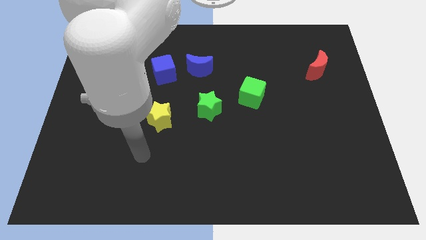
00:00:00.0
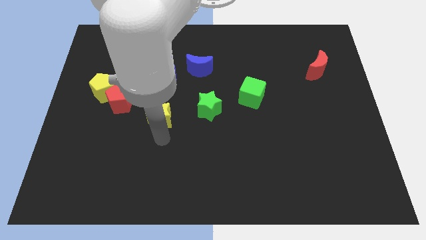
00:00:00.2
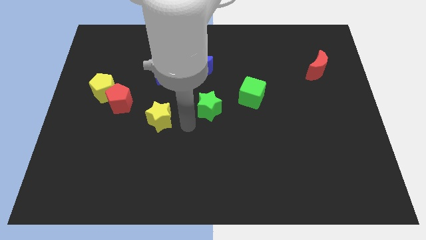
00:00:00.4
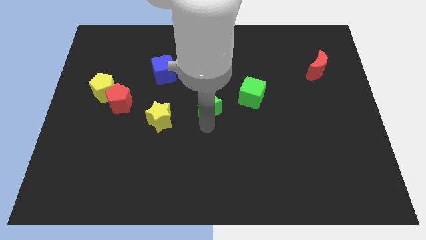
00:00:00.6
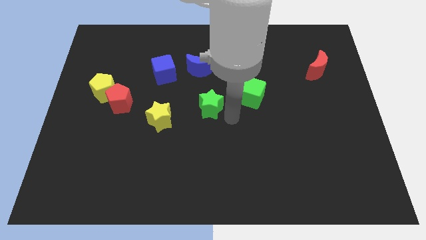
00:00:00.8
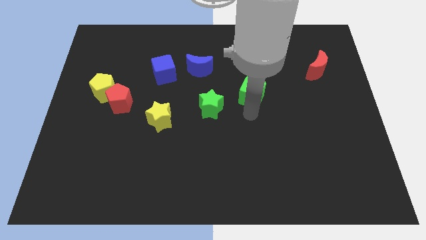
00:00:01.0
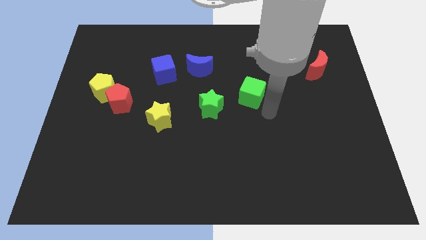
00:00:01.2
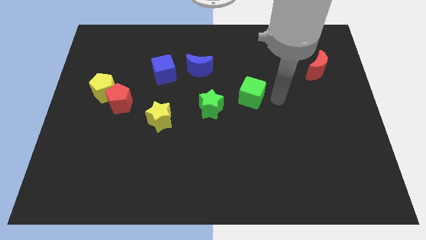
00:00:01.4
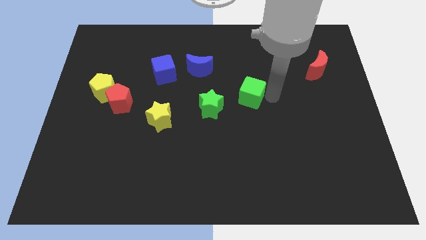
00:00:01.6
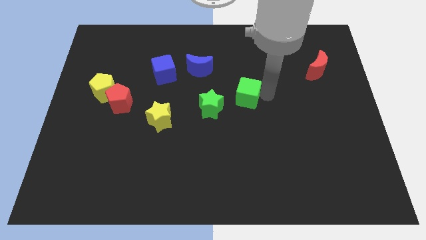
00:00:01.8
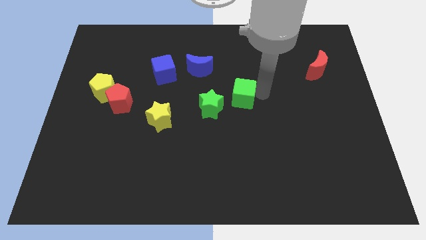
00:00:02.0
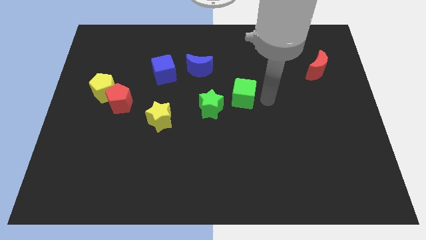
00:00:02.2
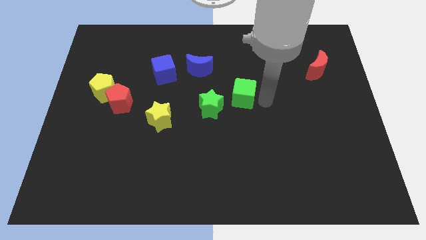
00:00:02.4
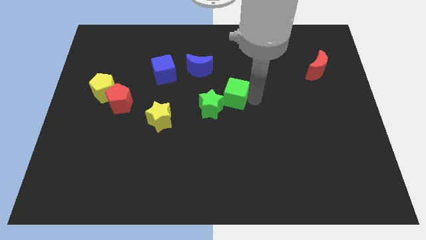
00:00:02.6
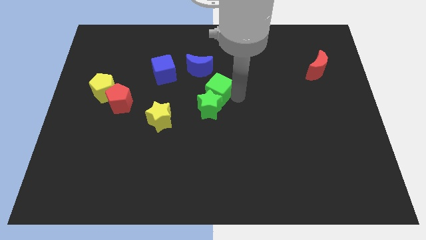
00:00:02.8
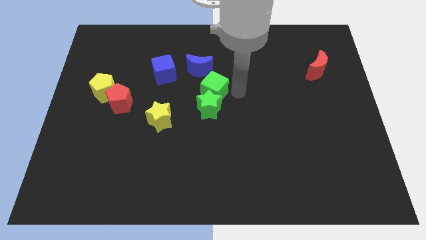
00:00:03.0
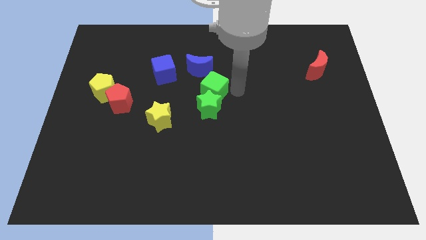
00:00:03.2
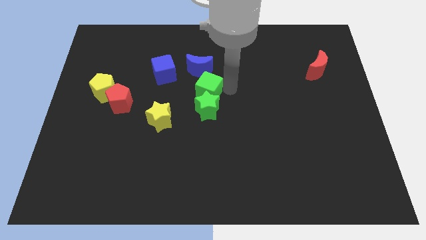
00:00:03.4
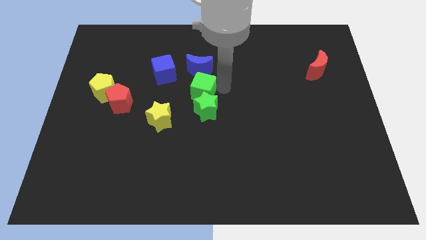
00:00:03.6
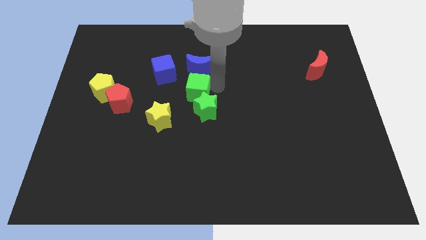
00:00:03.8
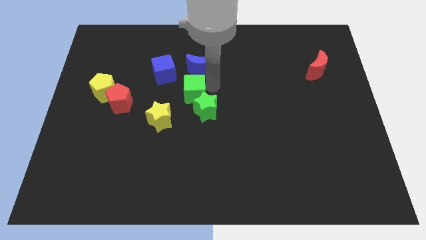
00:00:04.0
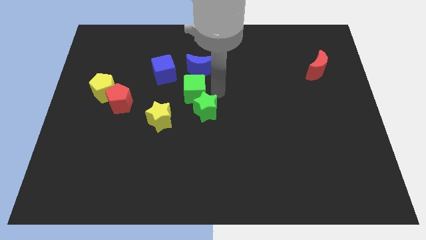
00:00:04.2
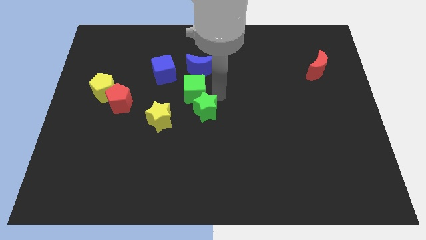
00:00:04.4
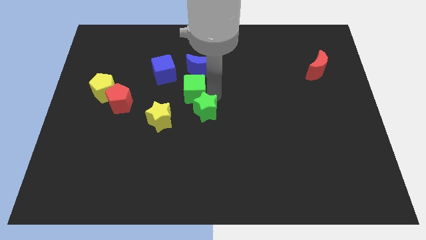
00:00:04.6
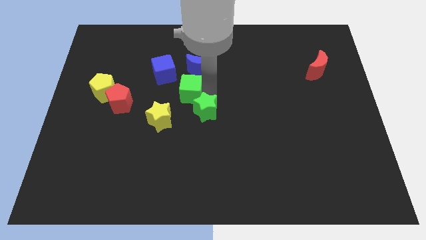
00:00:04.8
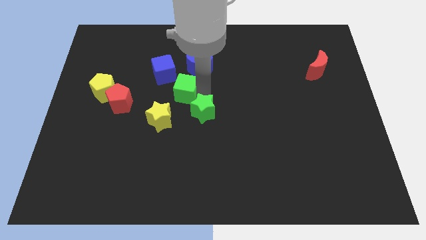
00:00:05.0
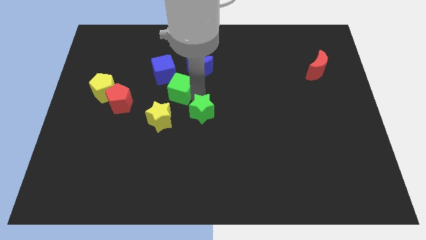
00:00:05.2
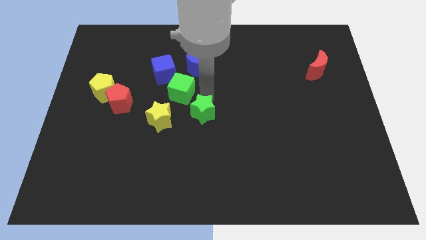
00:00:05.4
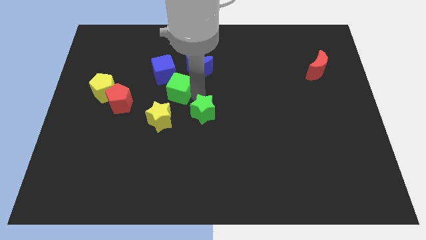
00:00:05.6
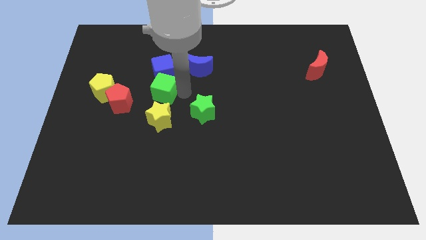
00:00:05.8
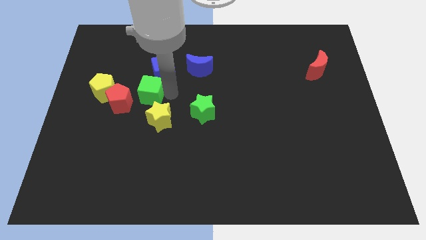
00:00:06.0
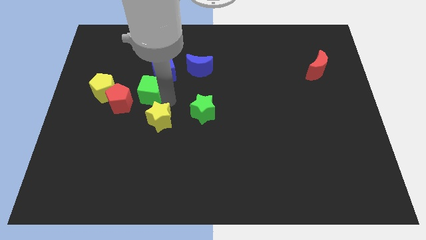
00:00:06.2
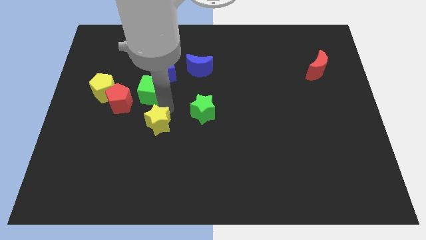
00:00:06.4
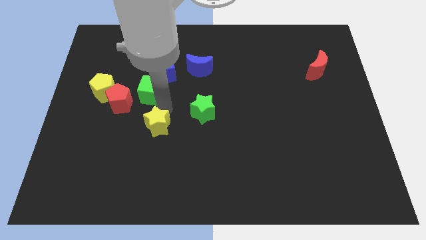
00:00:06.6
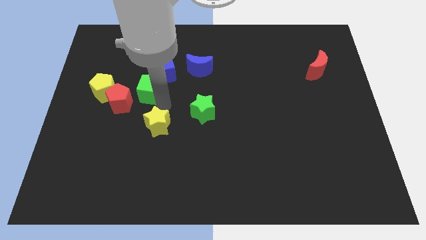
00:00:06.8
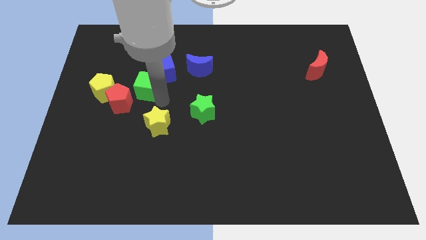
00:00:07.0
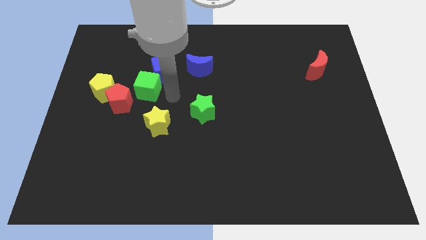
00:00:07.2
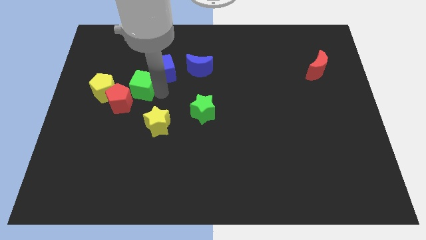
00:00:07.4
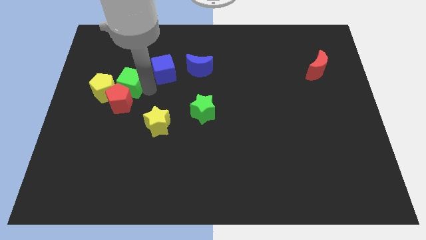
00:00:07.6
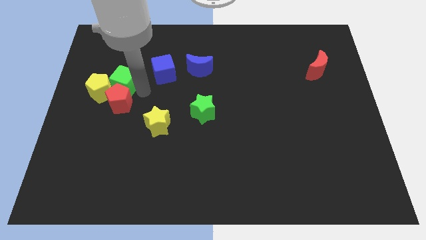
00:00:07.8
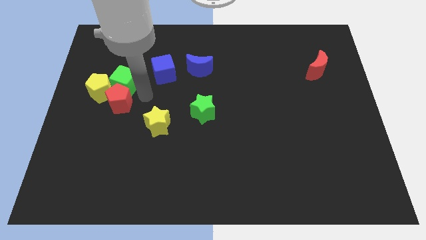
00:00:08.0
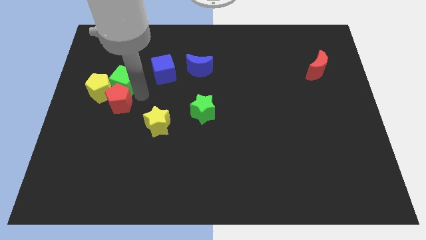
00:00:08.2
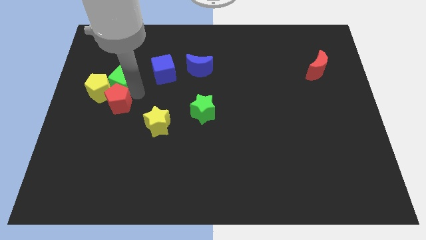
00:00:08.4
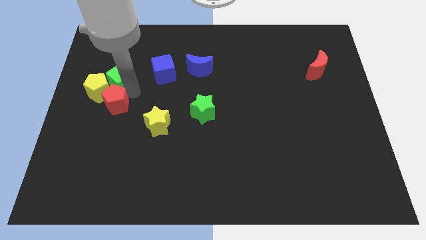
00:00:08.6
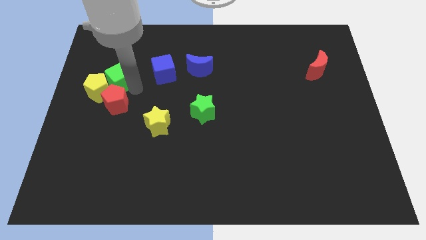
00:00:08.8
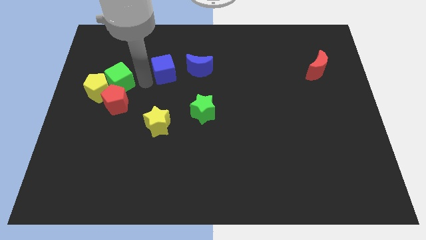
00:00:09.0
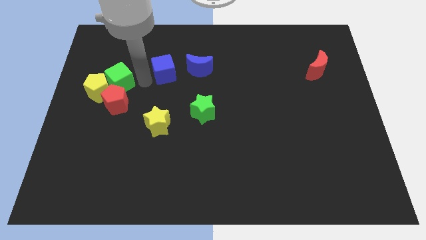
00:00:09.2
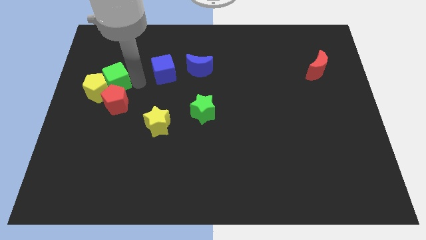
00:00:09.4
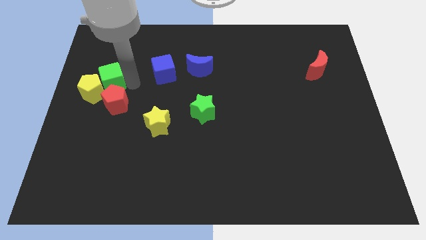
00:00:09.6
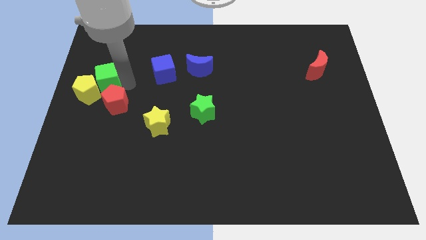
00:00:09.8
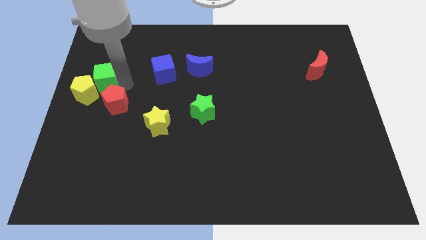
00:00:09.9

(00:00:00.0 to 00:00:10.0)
push the green cube to the left side

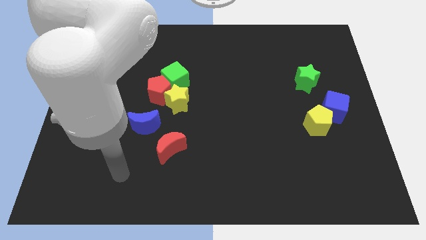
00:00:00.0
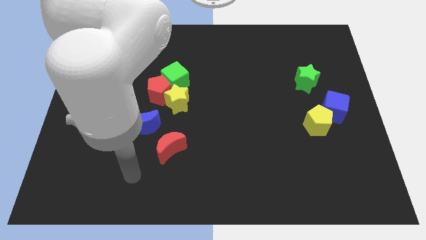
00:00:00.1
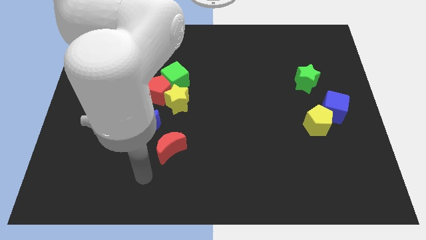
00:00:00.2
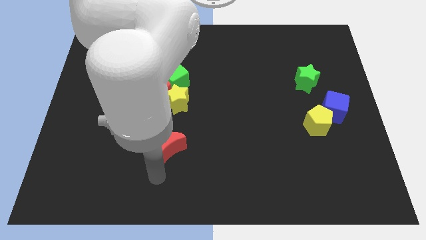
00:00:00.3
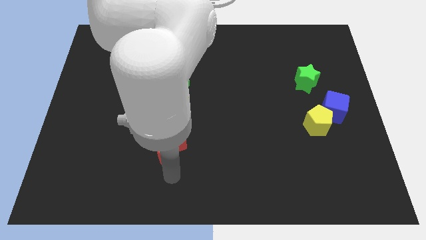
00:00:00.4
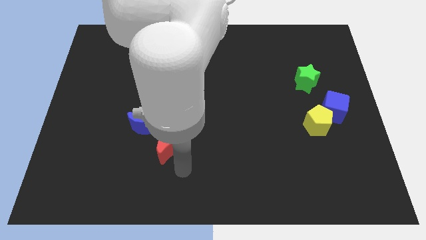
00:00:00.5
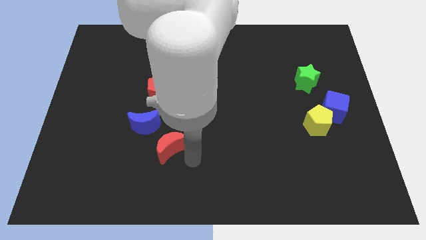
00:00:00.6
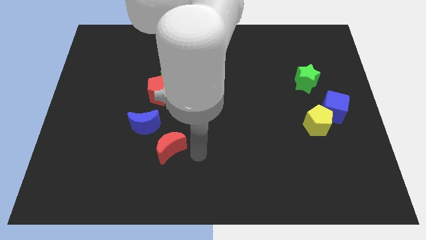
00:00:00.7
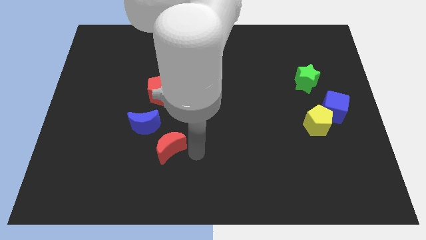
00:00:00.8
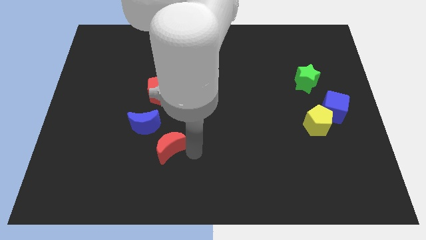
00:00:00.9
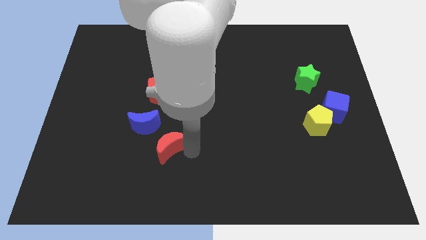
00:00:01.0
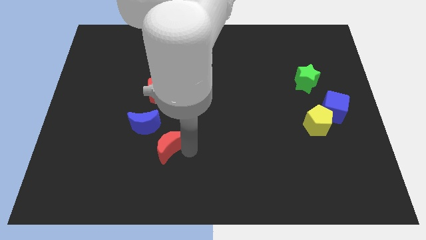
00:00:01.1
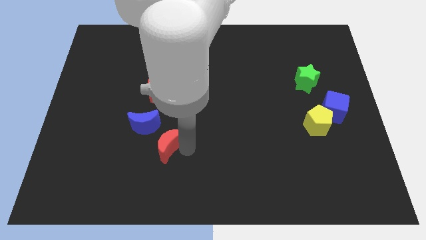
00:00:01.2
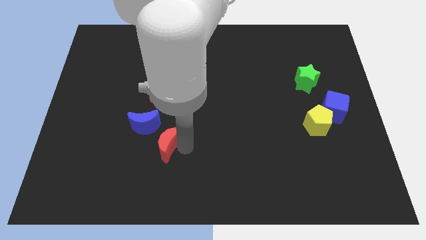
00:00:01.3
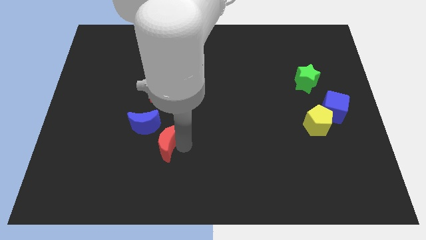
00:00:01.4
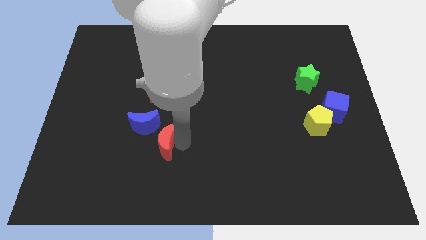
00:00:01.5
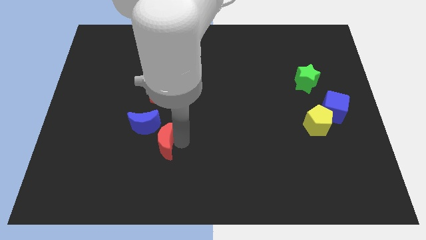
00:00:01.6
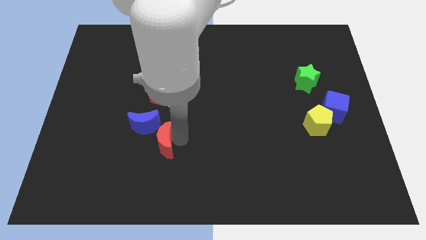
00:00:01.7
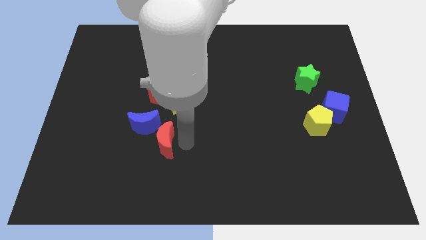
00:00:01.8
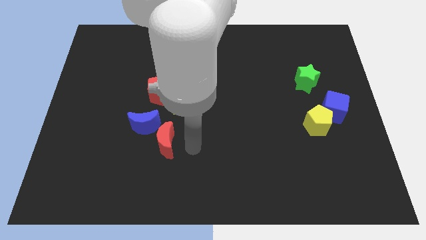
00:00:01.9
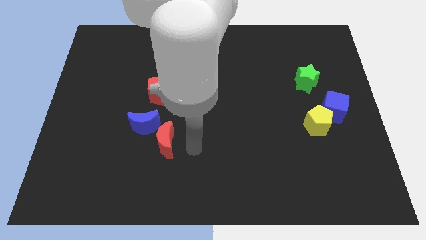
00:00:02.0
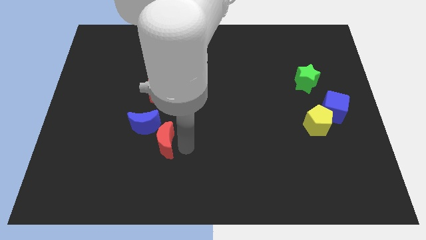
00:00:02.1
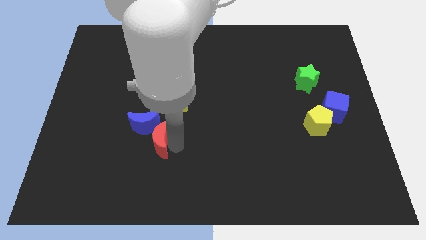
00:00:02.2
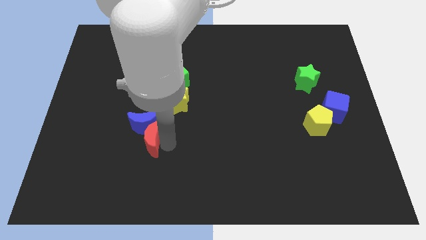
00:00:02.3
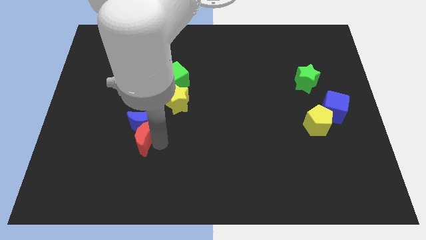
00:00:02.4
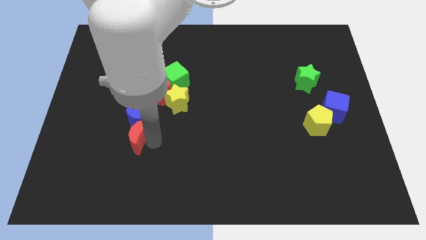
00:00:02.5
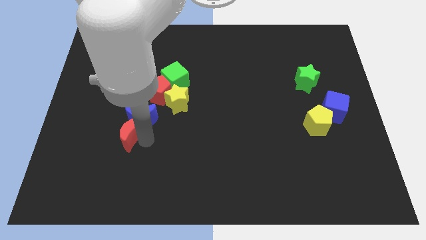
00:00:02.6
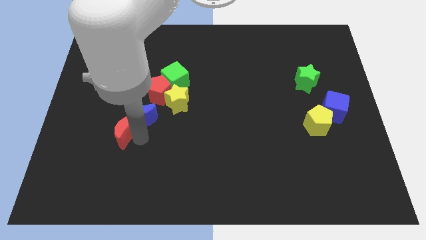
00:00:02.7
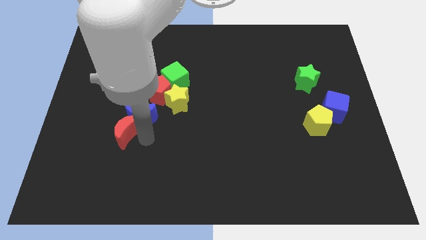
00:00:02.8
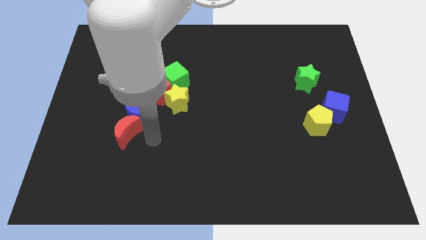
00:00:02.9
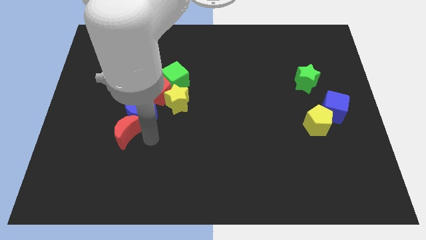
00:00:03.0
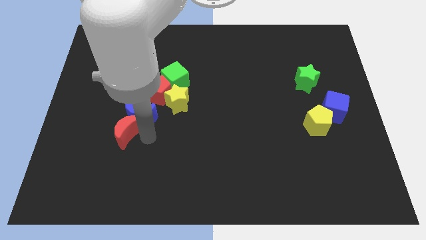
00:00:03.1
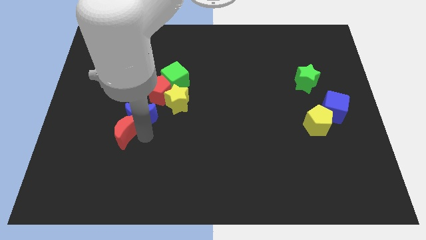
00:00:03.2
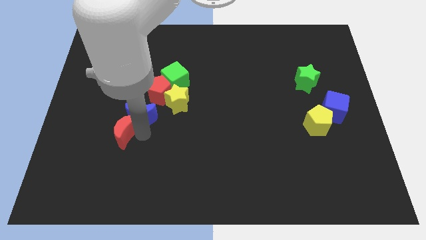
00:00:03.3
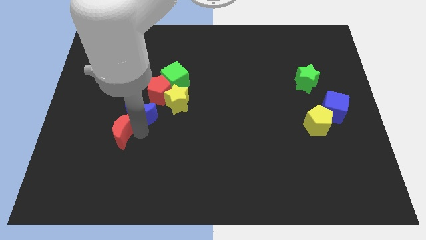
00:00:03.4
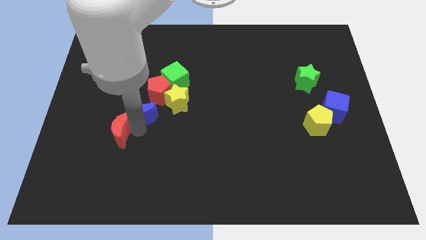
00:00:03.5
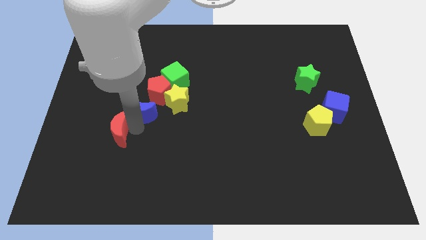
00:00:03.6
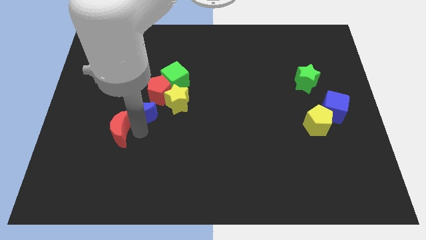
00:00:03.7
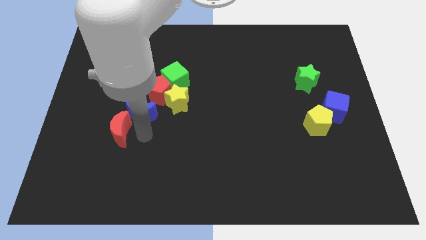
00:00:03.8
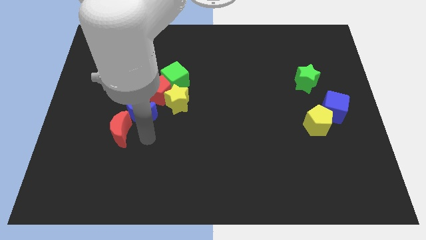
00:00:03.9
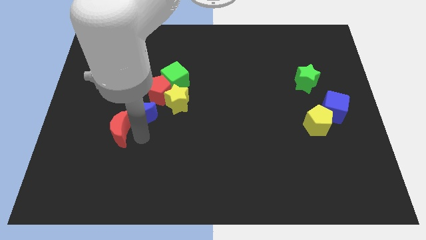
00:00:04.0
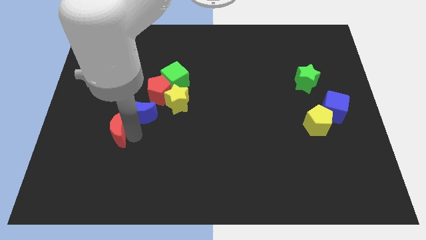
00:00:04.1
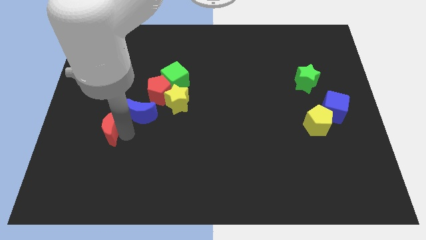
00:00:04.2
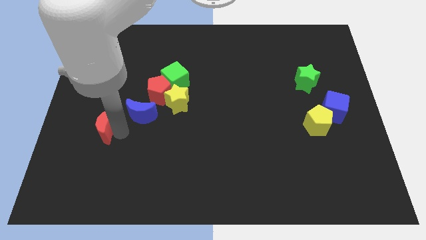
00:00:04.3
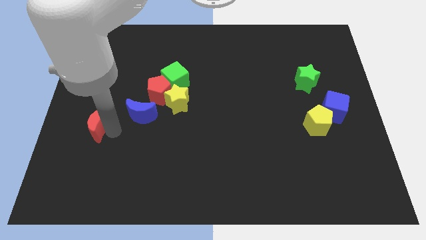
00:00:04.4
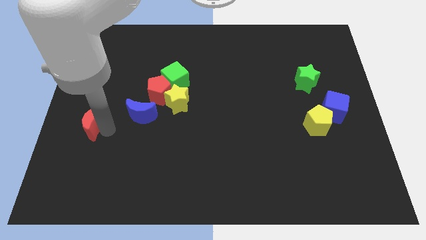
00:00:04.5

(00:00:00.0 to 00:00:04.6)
push the red moon to the center left
